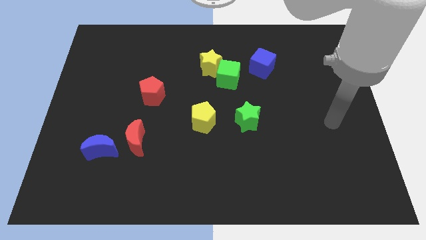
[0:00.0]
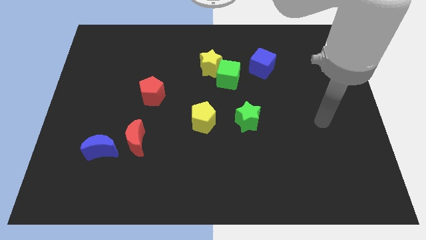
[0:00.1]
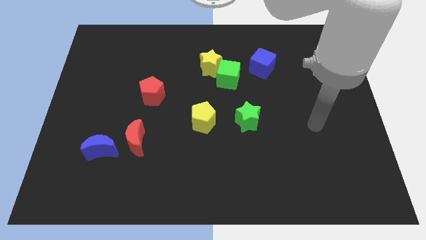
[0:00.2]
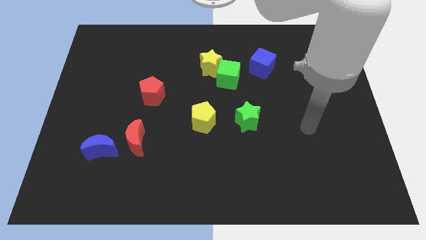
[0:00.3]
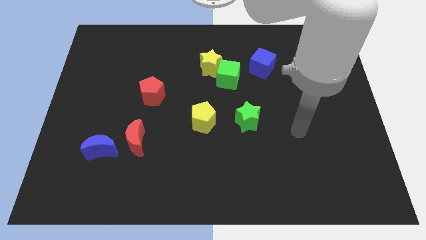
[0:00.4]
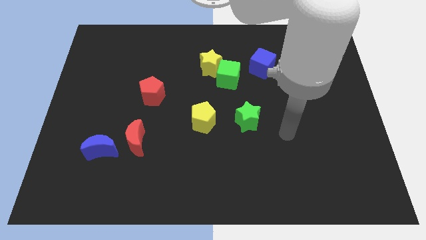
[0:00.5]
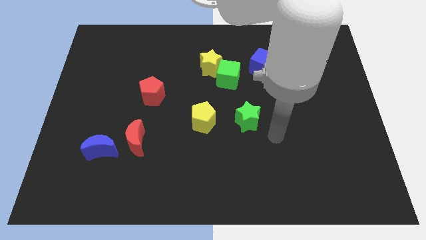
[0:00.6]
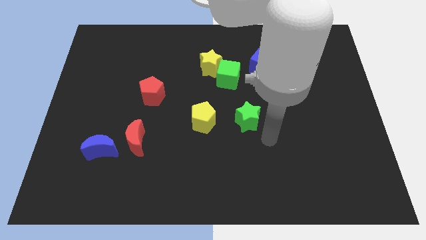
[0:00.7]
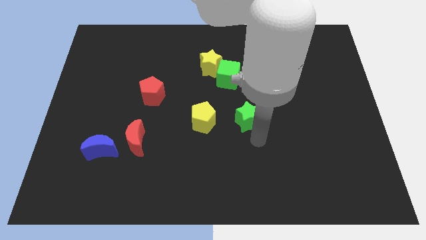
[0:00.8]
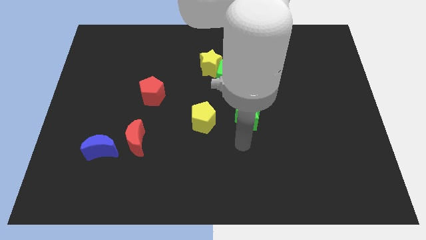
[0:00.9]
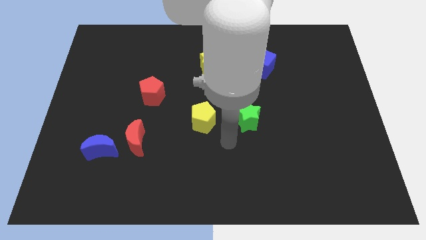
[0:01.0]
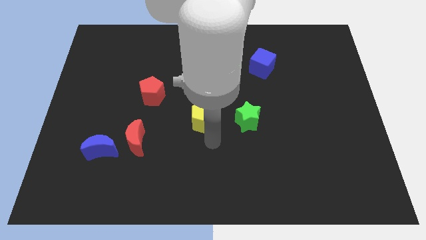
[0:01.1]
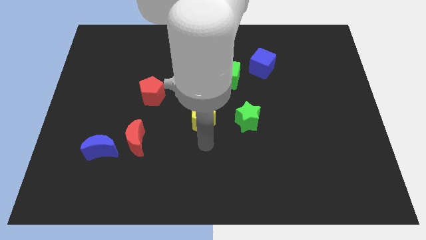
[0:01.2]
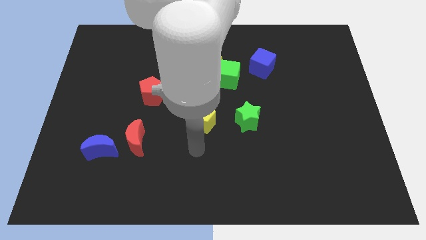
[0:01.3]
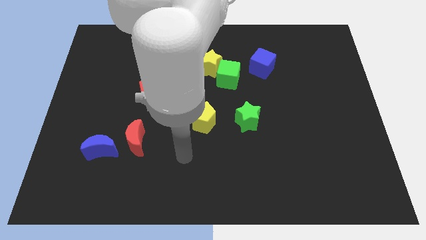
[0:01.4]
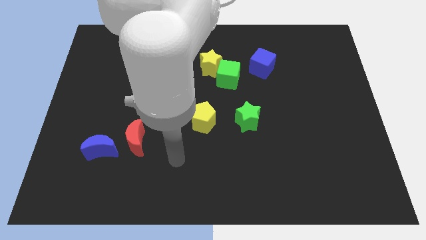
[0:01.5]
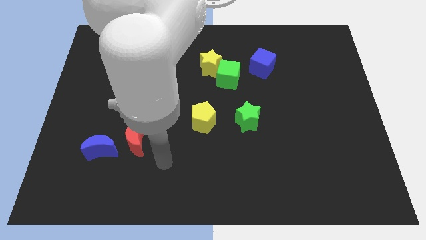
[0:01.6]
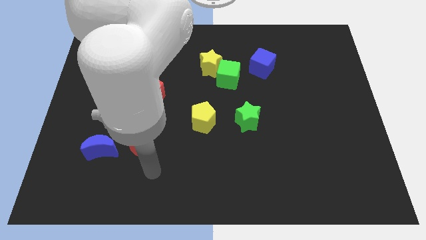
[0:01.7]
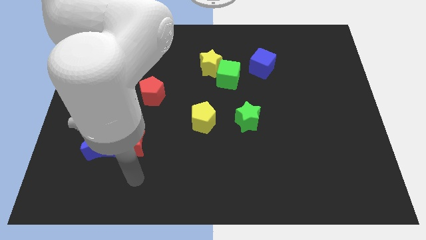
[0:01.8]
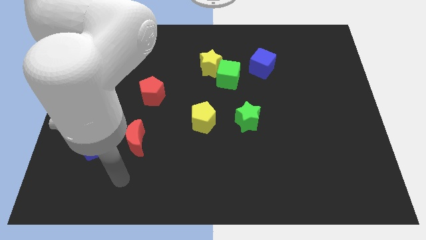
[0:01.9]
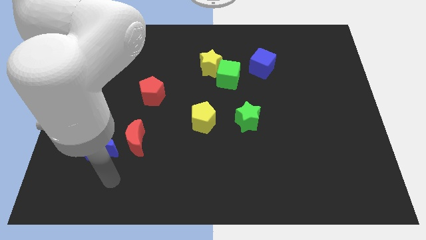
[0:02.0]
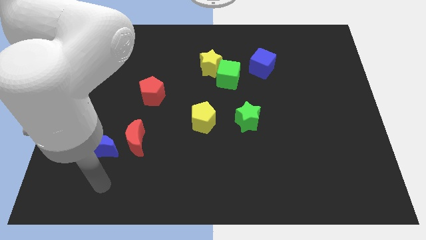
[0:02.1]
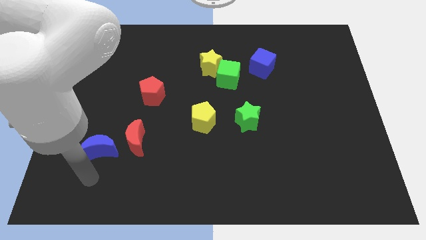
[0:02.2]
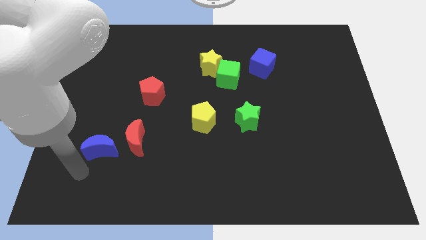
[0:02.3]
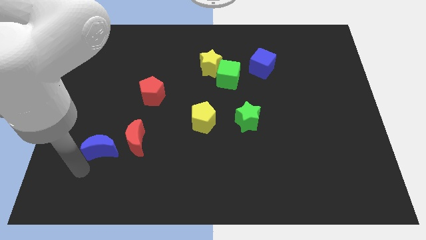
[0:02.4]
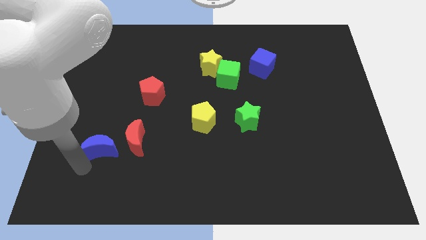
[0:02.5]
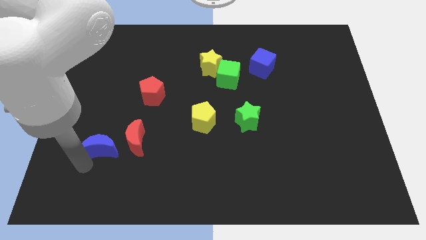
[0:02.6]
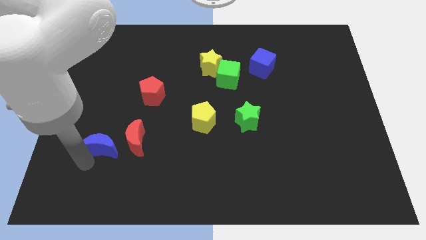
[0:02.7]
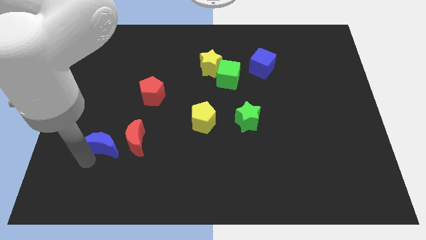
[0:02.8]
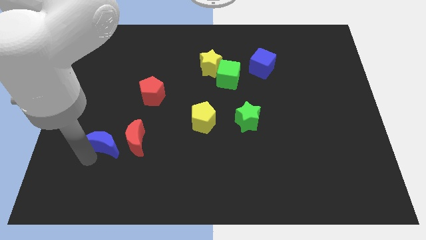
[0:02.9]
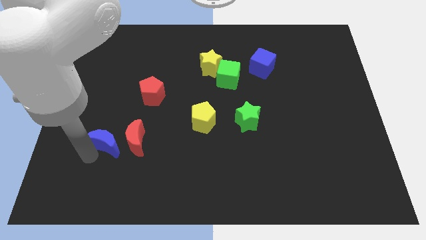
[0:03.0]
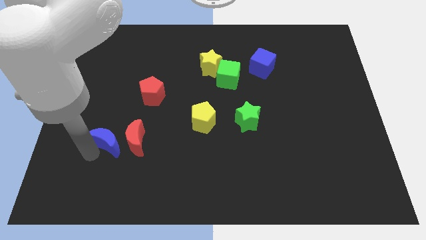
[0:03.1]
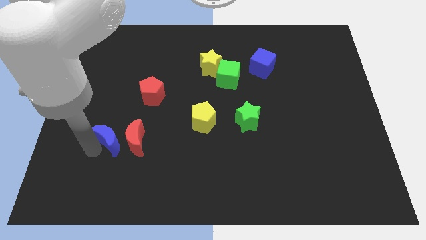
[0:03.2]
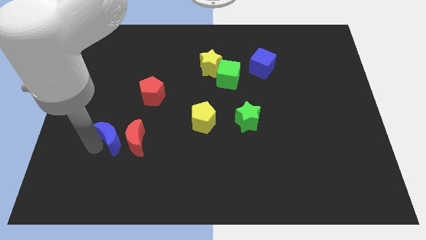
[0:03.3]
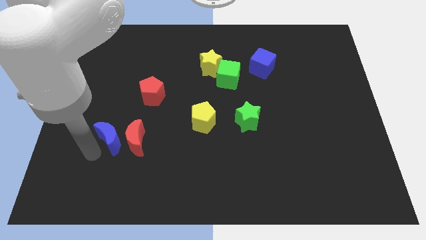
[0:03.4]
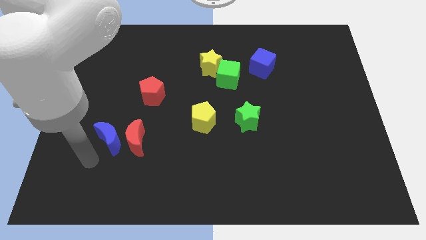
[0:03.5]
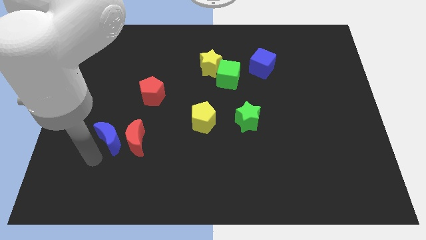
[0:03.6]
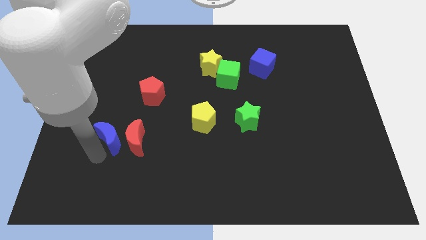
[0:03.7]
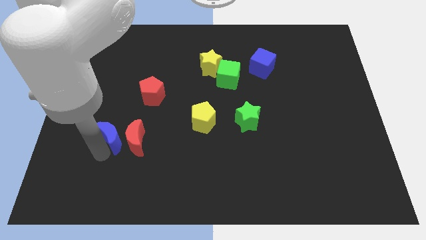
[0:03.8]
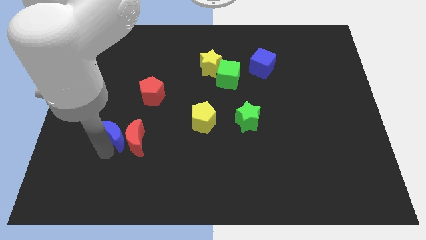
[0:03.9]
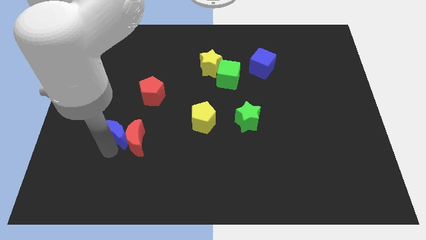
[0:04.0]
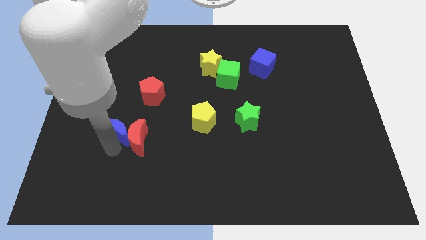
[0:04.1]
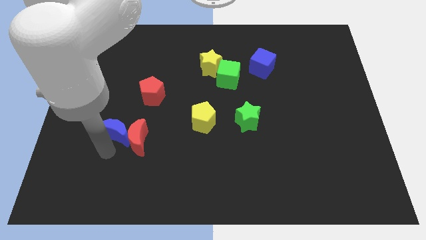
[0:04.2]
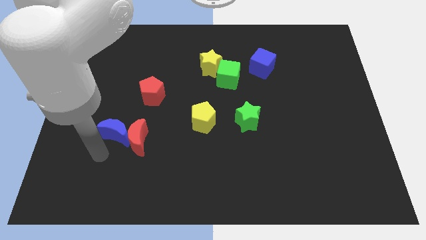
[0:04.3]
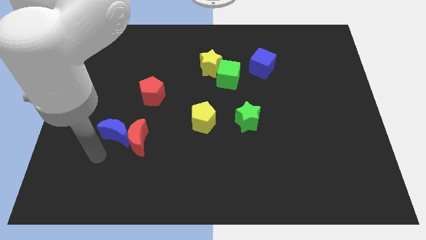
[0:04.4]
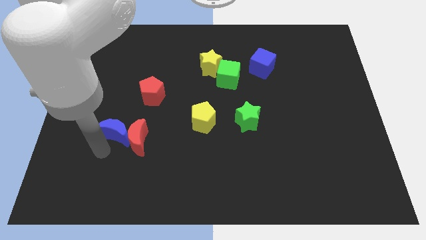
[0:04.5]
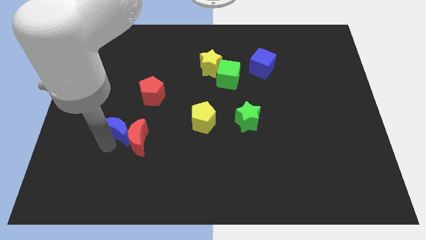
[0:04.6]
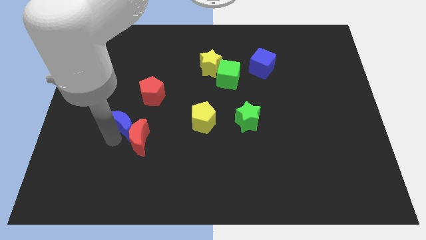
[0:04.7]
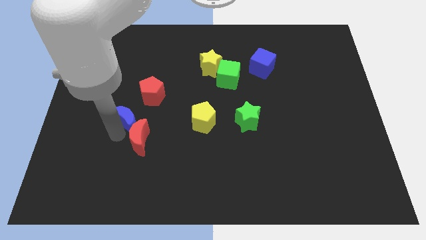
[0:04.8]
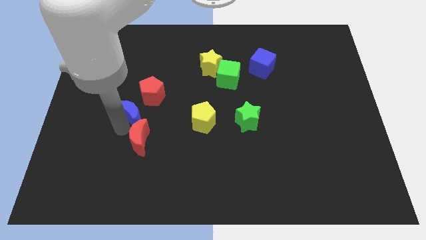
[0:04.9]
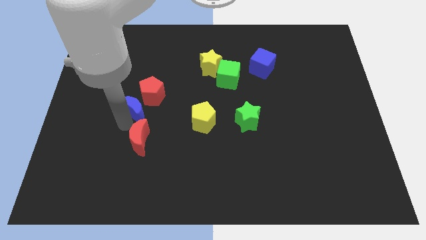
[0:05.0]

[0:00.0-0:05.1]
move the blue moon towards the red pentagon
